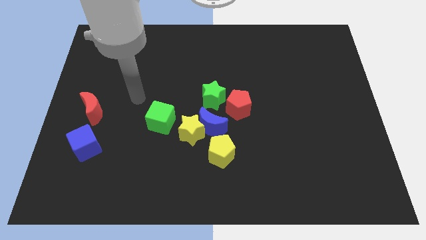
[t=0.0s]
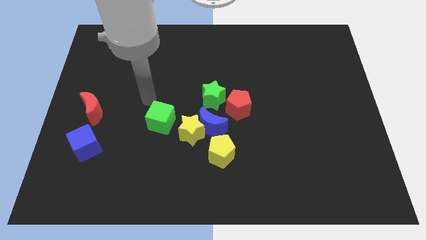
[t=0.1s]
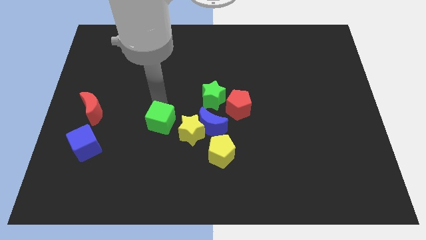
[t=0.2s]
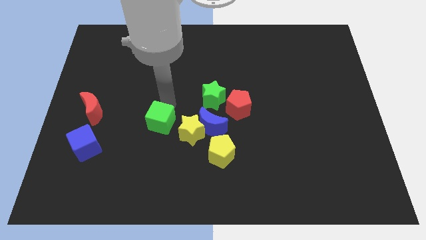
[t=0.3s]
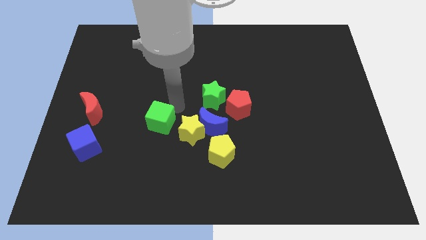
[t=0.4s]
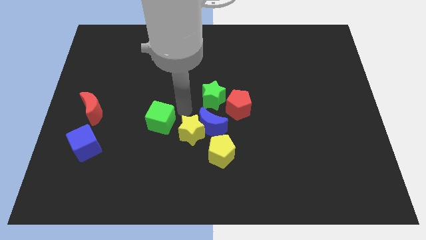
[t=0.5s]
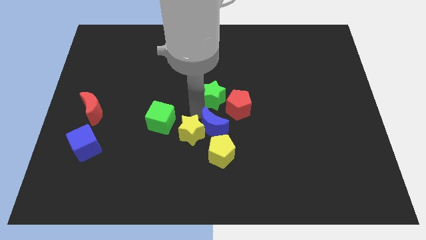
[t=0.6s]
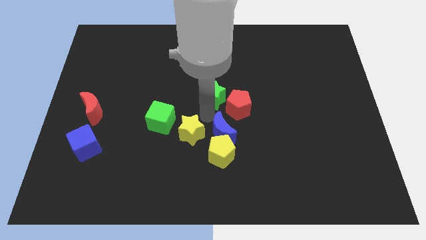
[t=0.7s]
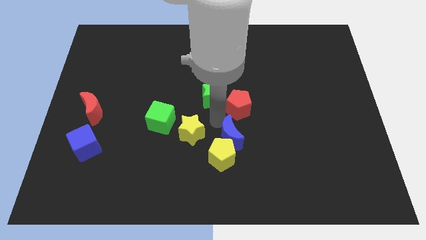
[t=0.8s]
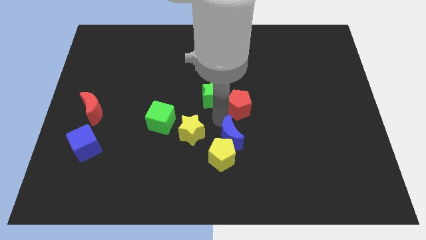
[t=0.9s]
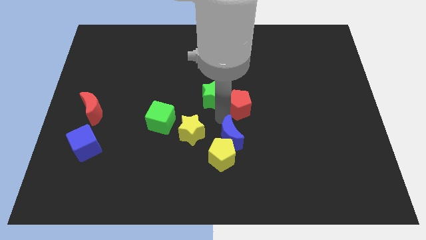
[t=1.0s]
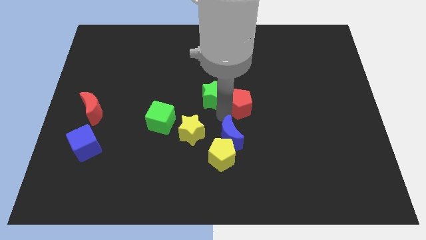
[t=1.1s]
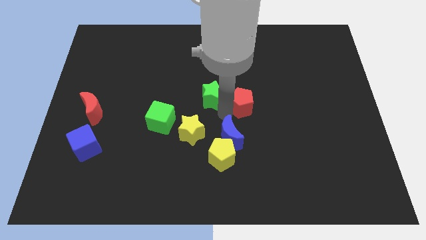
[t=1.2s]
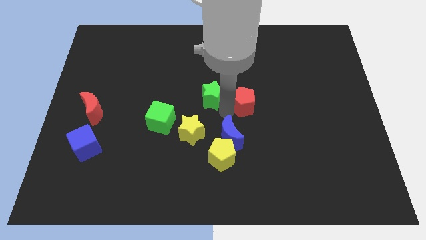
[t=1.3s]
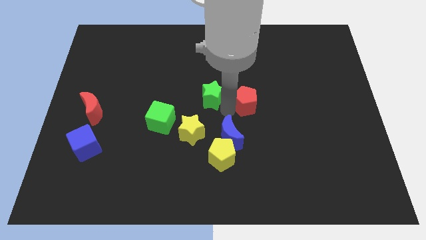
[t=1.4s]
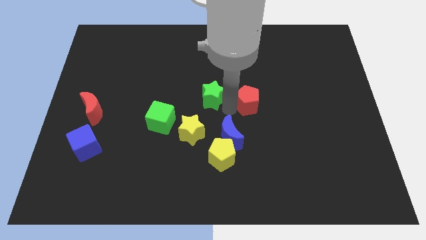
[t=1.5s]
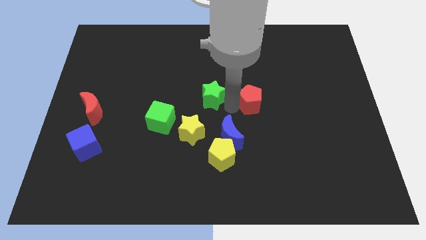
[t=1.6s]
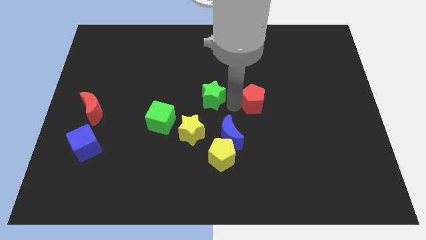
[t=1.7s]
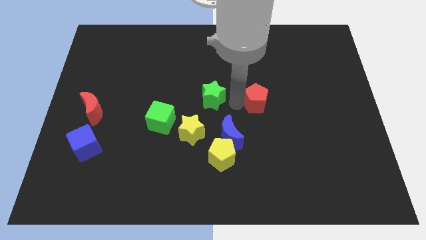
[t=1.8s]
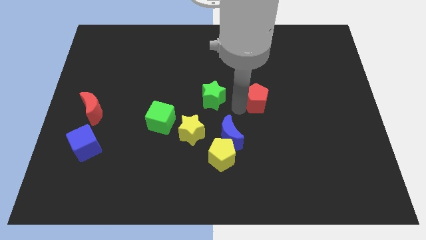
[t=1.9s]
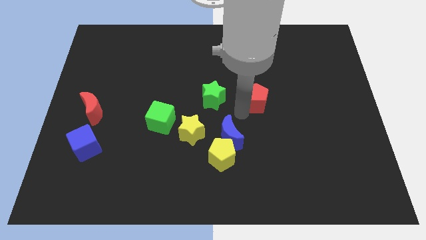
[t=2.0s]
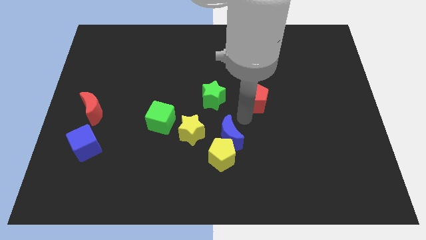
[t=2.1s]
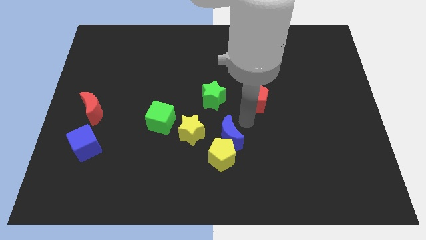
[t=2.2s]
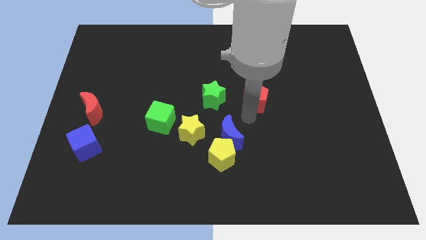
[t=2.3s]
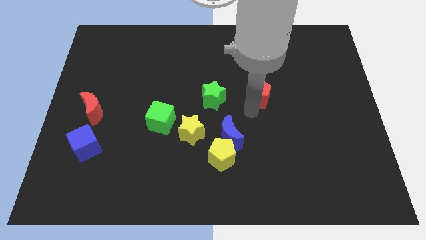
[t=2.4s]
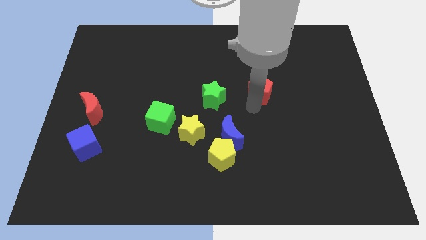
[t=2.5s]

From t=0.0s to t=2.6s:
slightly move the red pentagon upwards and to the right diagonally

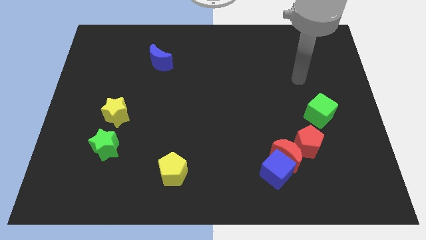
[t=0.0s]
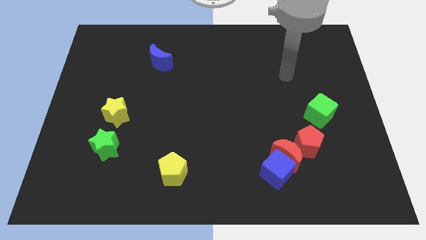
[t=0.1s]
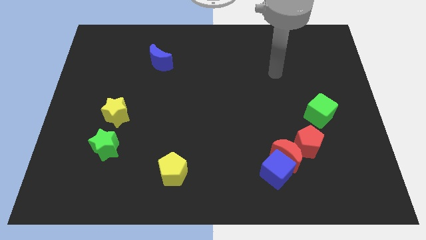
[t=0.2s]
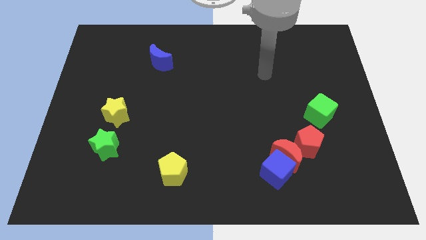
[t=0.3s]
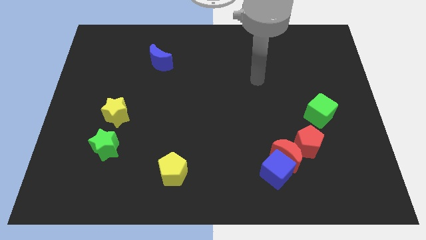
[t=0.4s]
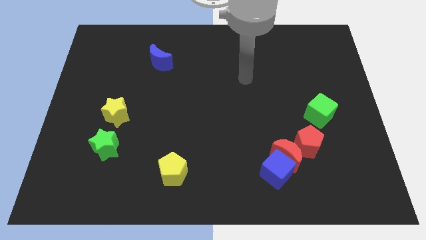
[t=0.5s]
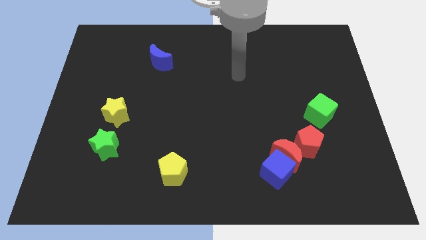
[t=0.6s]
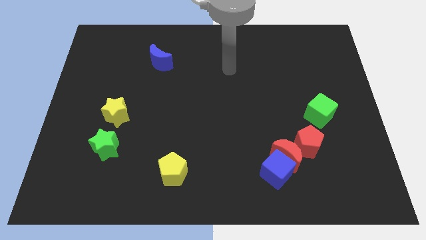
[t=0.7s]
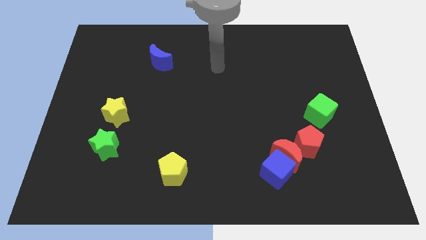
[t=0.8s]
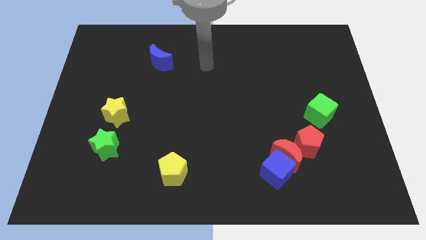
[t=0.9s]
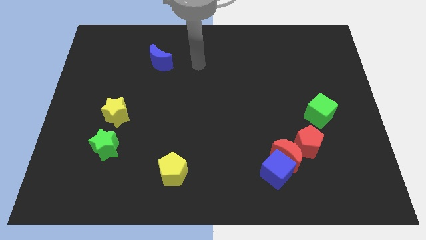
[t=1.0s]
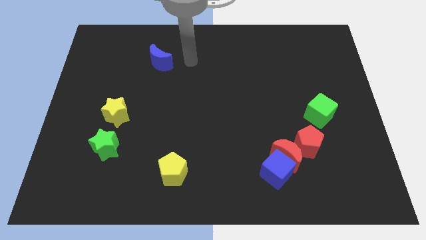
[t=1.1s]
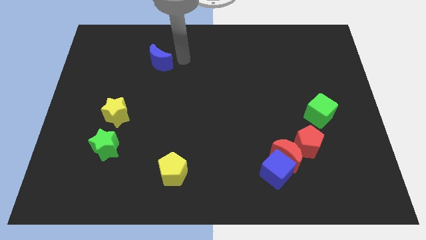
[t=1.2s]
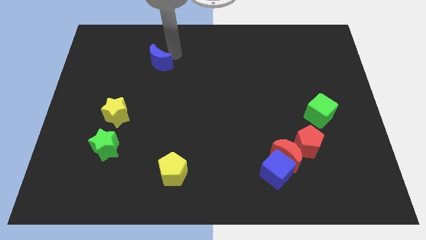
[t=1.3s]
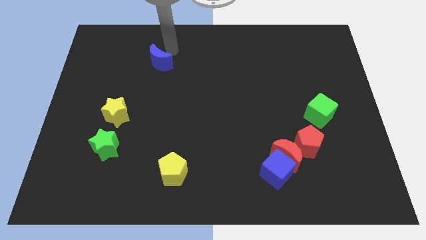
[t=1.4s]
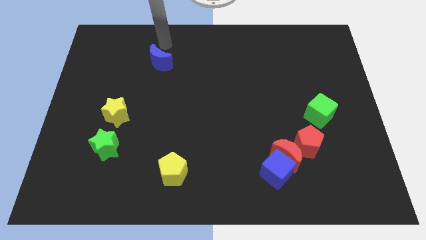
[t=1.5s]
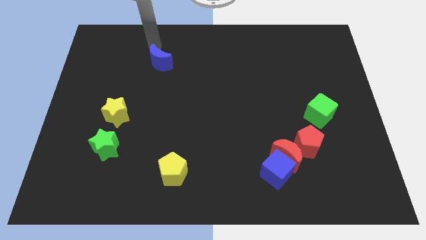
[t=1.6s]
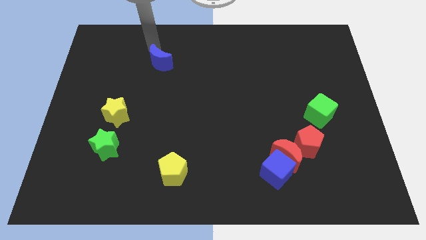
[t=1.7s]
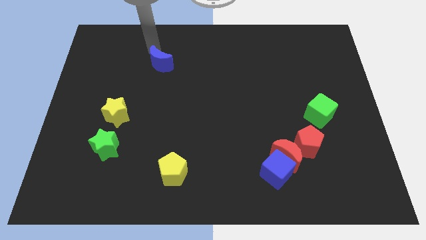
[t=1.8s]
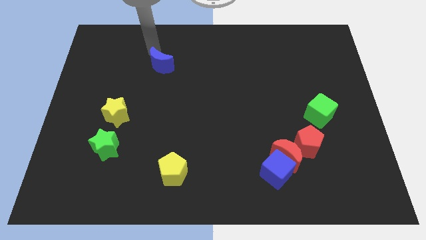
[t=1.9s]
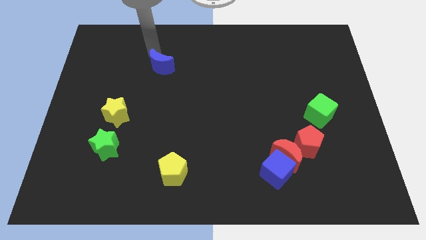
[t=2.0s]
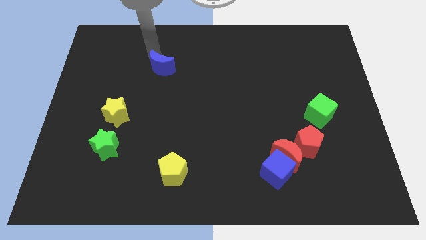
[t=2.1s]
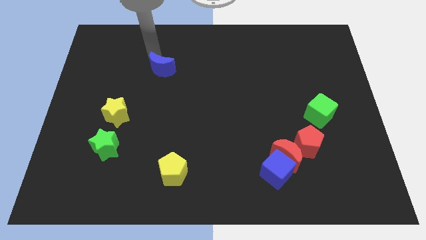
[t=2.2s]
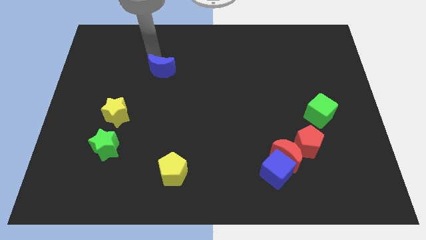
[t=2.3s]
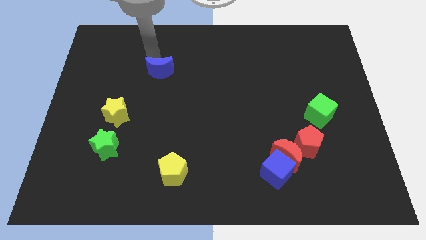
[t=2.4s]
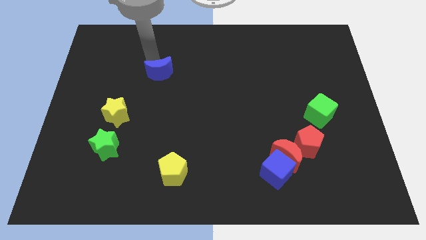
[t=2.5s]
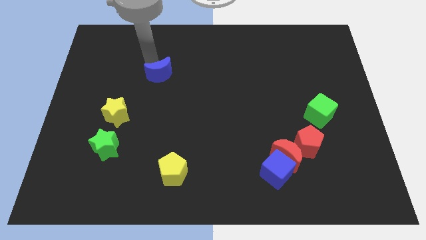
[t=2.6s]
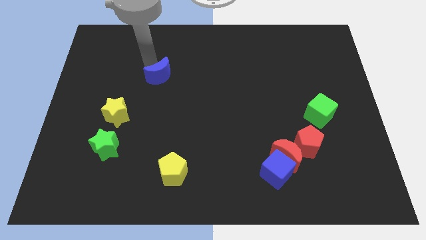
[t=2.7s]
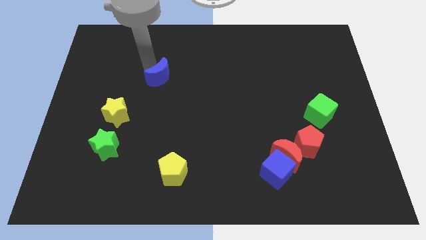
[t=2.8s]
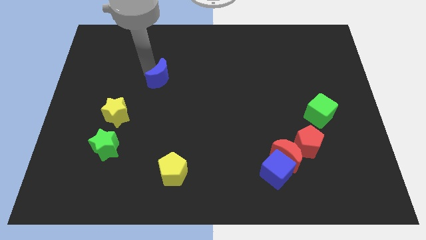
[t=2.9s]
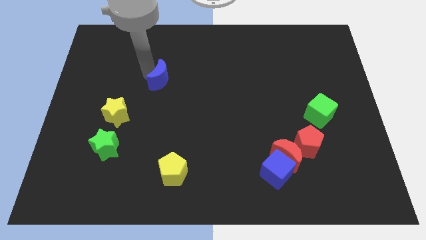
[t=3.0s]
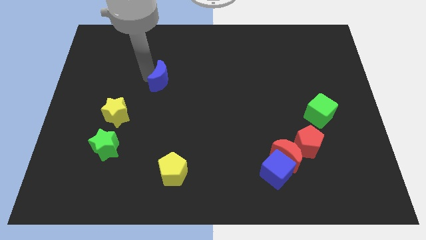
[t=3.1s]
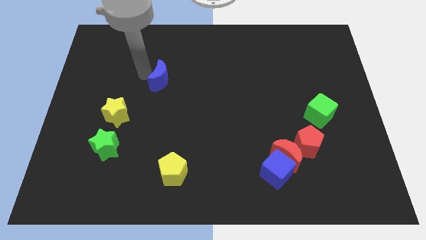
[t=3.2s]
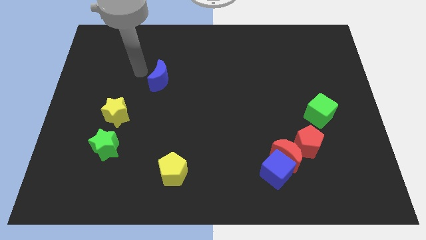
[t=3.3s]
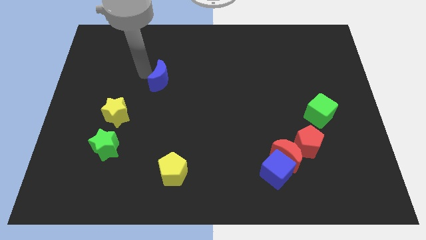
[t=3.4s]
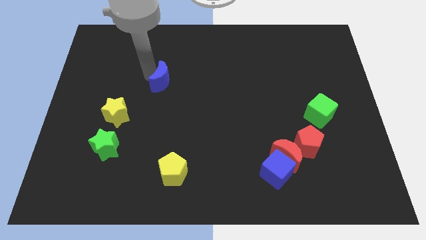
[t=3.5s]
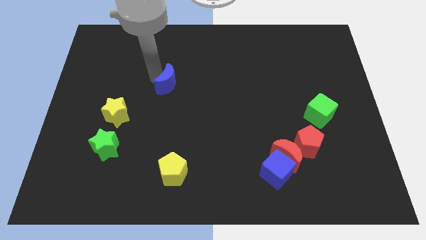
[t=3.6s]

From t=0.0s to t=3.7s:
slightly move the blue moon down and right

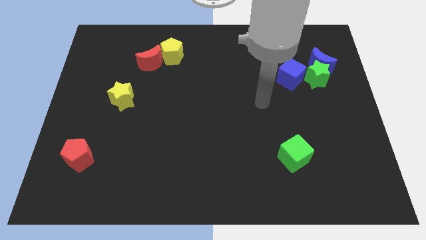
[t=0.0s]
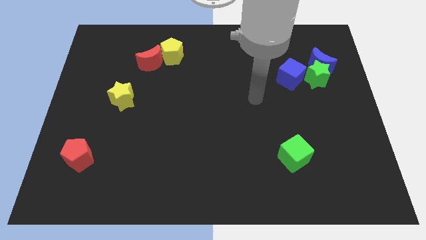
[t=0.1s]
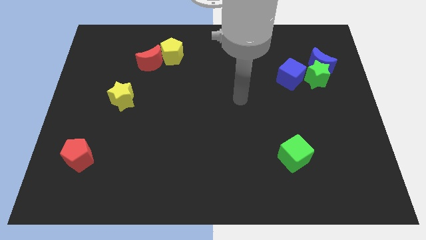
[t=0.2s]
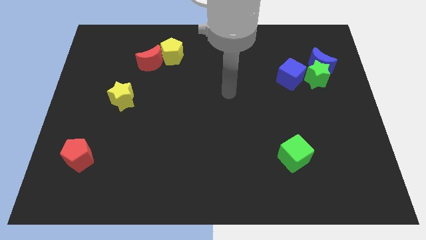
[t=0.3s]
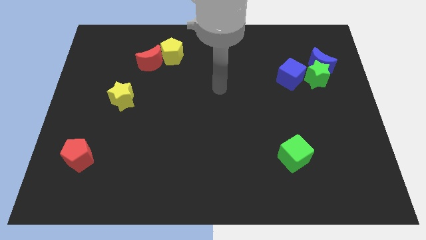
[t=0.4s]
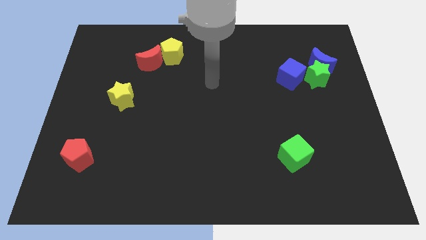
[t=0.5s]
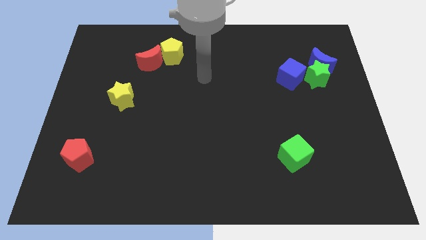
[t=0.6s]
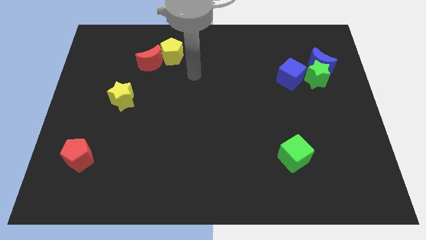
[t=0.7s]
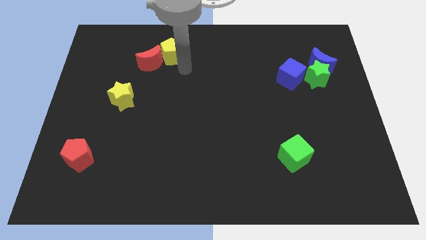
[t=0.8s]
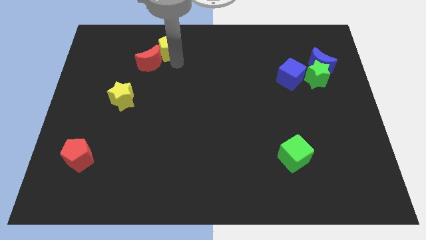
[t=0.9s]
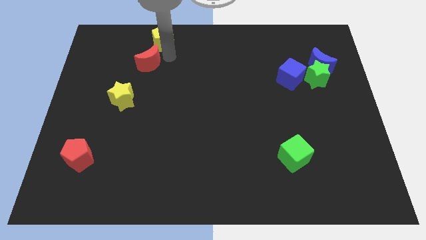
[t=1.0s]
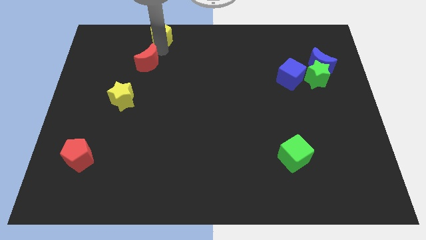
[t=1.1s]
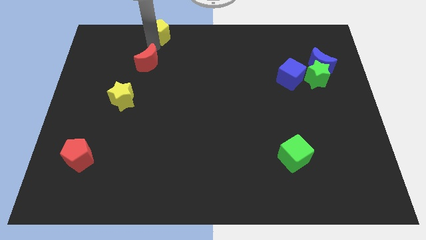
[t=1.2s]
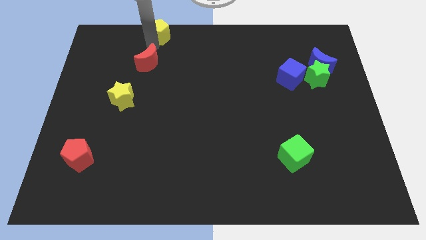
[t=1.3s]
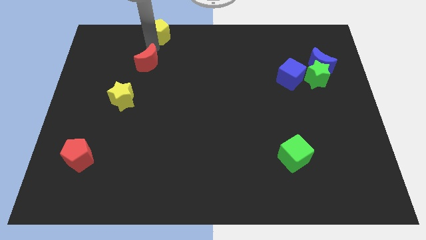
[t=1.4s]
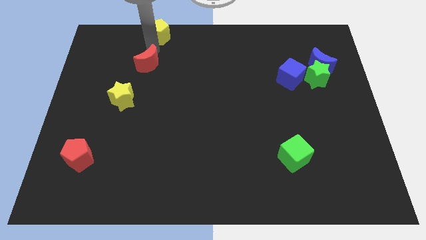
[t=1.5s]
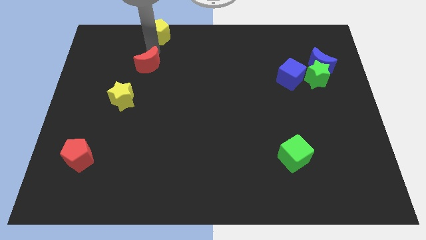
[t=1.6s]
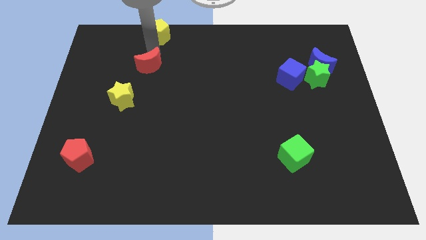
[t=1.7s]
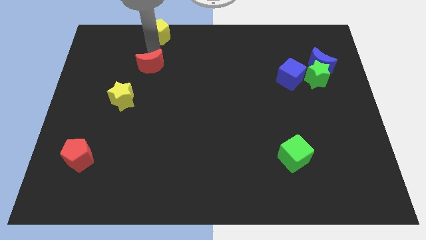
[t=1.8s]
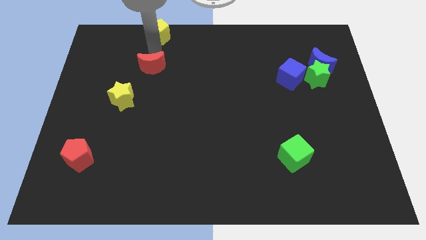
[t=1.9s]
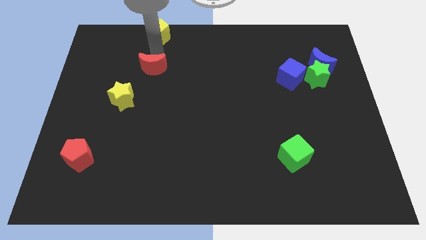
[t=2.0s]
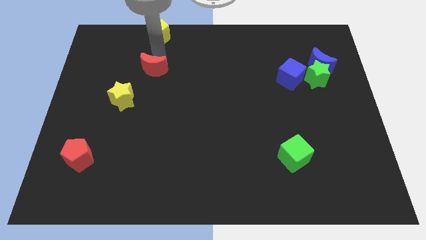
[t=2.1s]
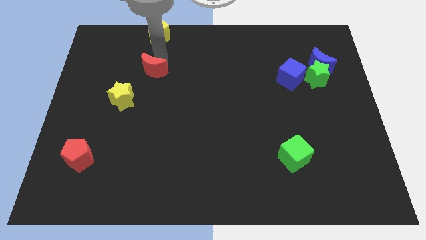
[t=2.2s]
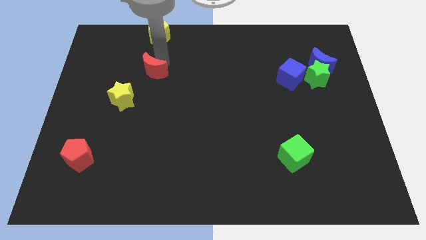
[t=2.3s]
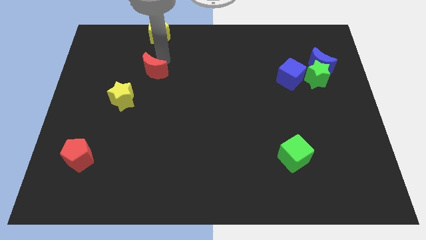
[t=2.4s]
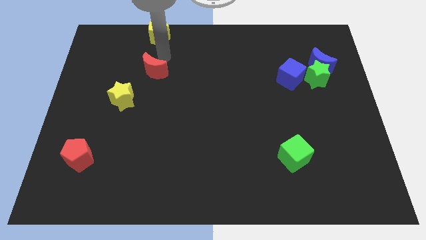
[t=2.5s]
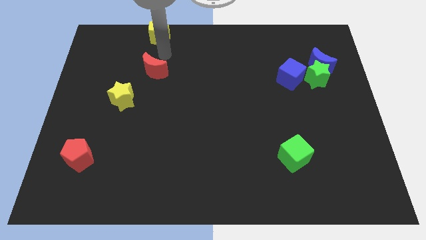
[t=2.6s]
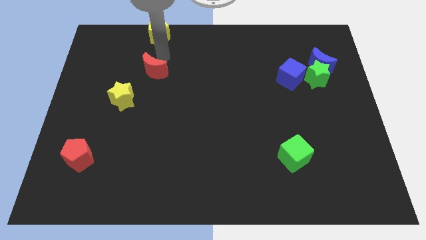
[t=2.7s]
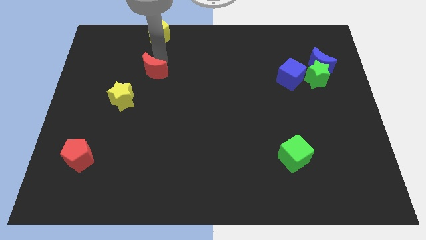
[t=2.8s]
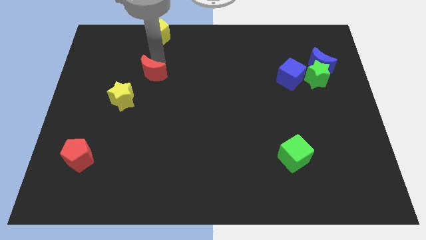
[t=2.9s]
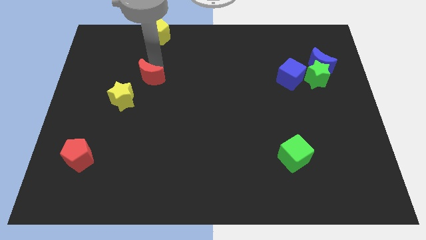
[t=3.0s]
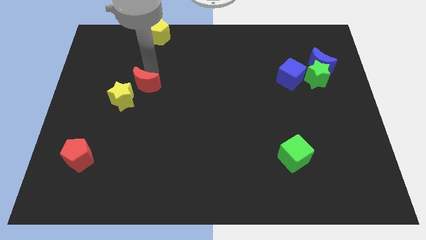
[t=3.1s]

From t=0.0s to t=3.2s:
slide the red moon a little downwards
